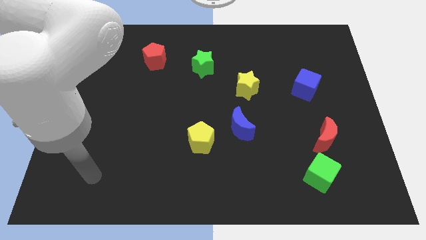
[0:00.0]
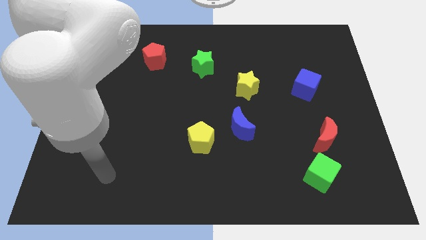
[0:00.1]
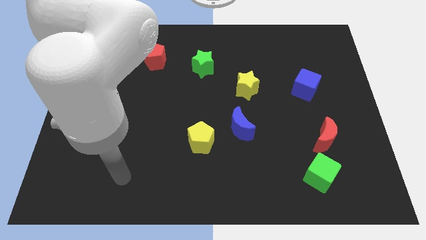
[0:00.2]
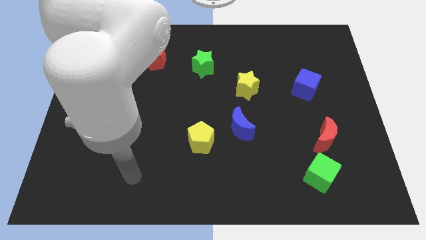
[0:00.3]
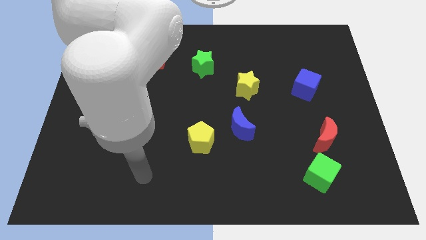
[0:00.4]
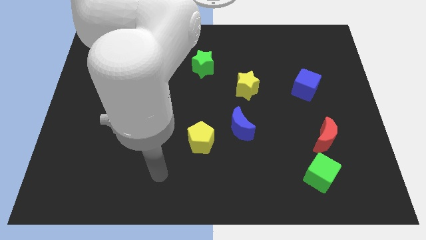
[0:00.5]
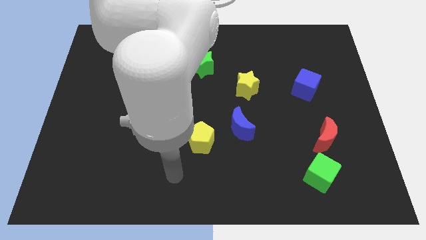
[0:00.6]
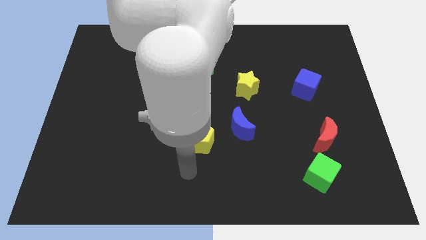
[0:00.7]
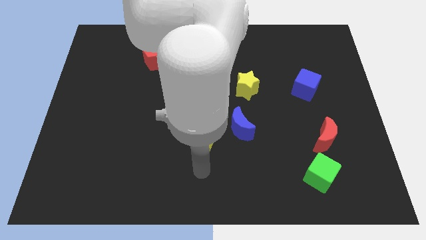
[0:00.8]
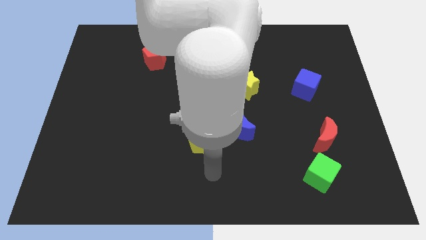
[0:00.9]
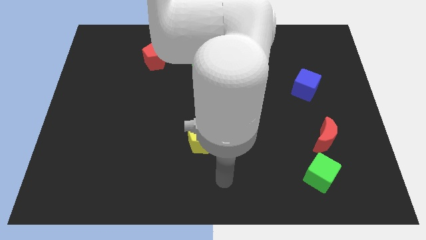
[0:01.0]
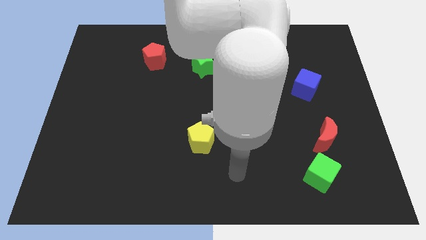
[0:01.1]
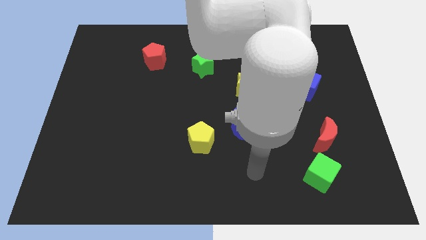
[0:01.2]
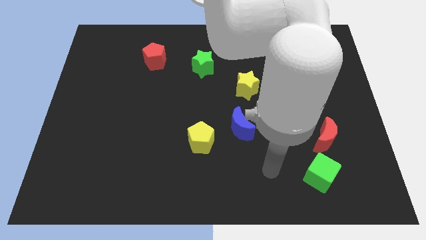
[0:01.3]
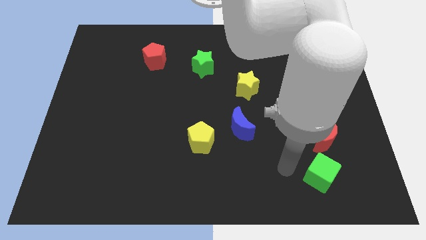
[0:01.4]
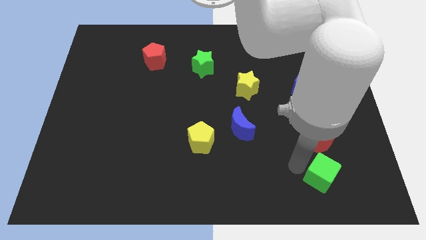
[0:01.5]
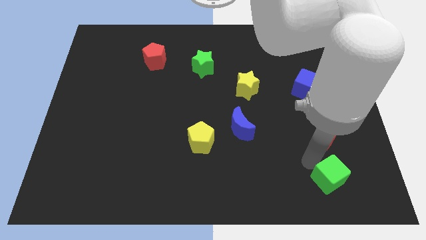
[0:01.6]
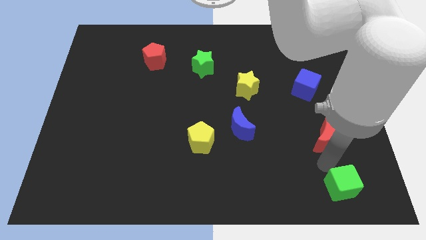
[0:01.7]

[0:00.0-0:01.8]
pull the red moon apart from the green cube

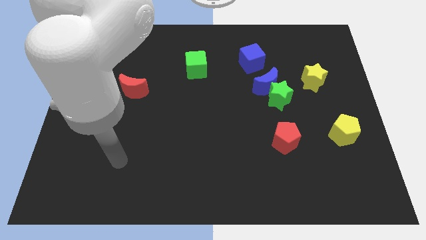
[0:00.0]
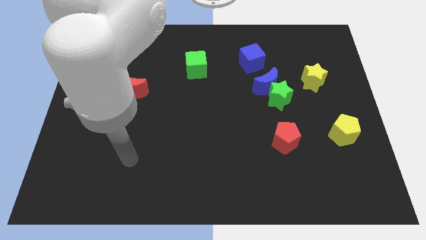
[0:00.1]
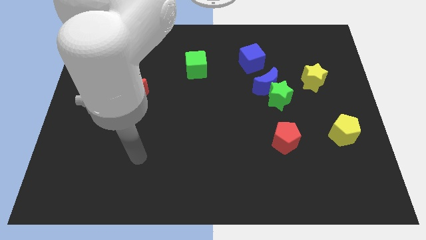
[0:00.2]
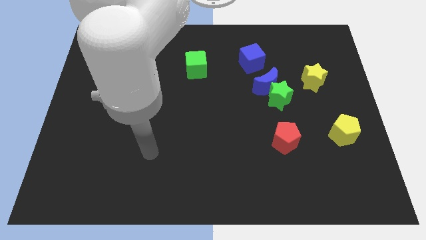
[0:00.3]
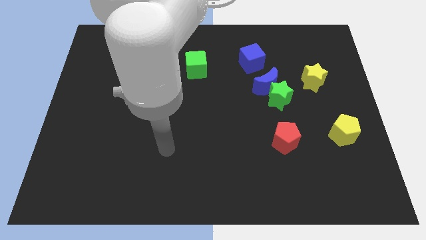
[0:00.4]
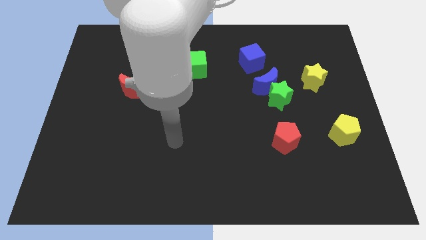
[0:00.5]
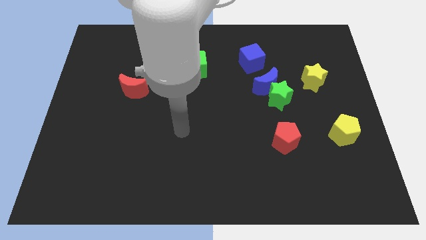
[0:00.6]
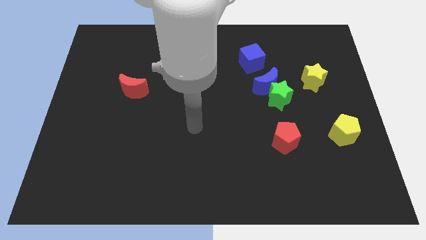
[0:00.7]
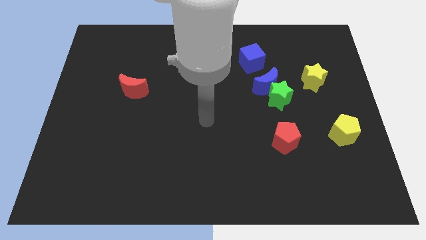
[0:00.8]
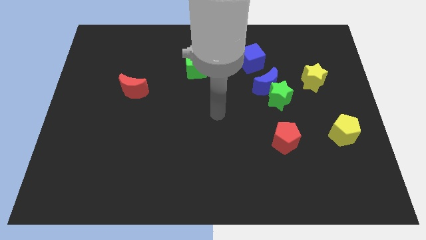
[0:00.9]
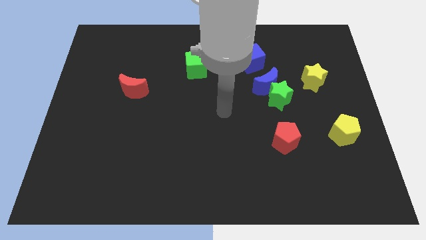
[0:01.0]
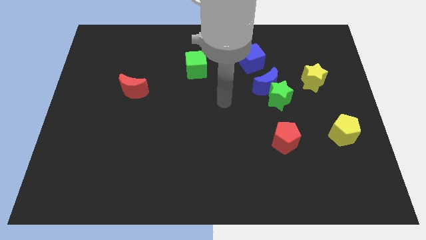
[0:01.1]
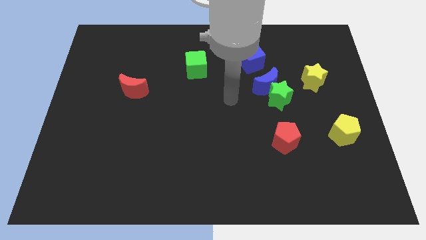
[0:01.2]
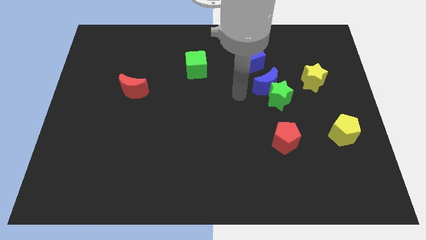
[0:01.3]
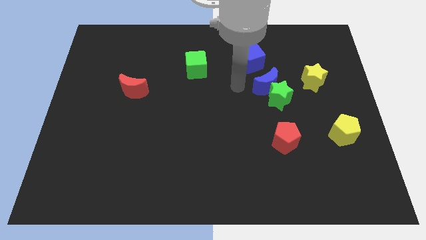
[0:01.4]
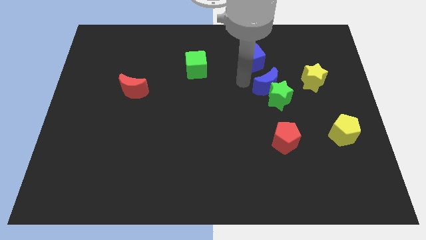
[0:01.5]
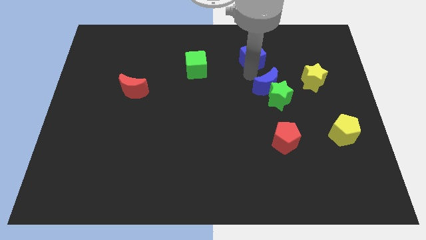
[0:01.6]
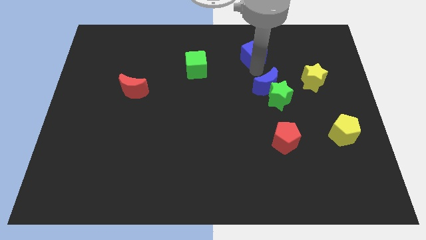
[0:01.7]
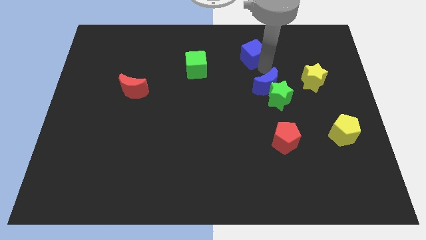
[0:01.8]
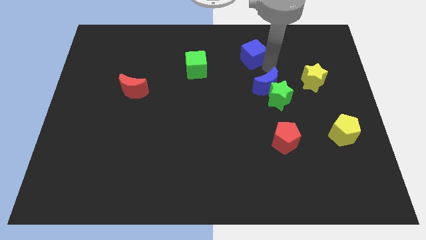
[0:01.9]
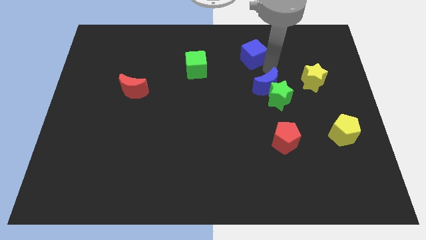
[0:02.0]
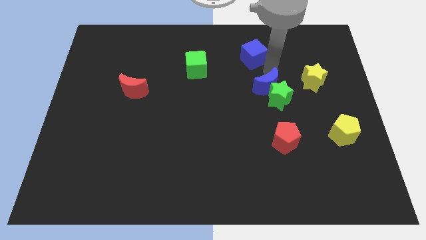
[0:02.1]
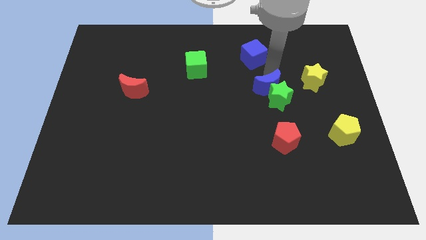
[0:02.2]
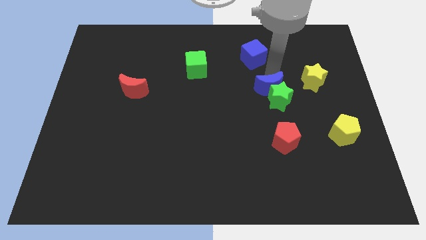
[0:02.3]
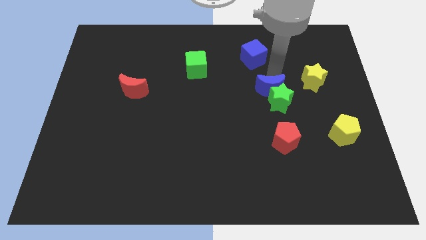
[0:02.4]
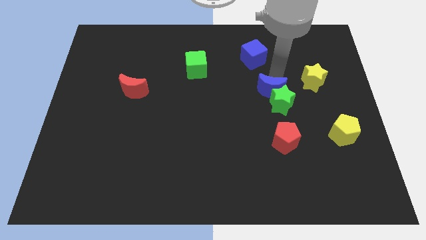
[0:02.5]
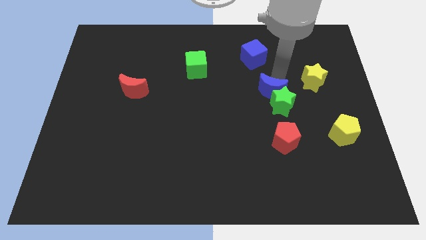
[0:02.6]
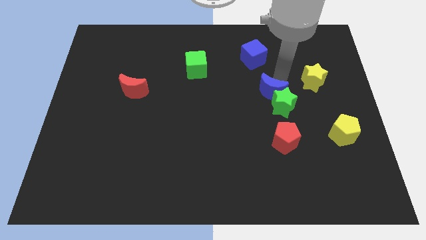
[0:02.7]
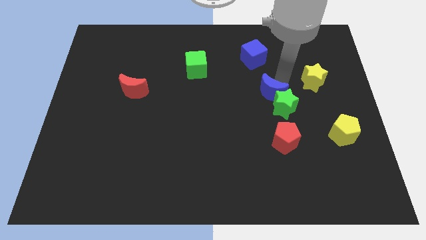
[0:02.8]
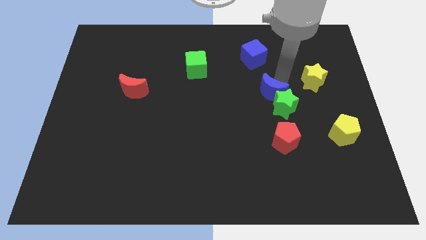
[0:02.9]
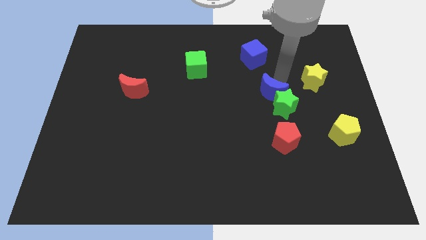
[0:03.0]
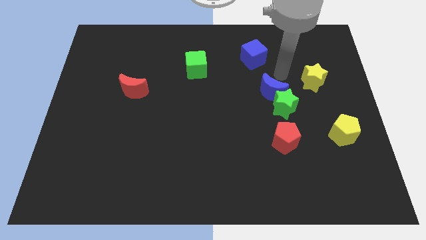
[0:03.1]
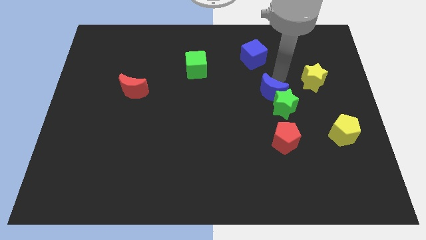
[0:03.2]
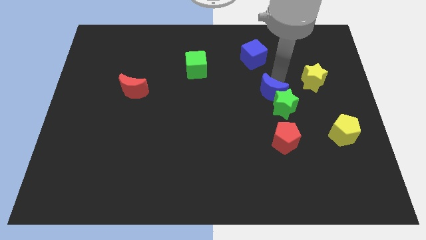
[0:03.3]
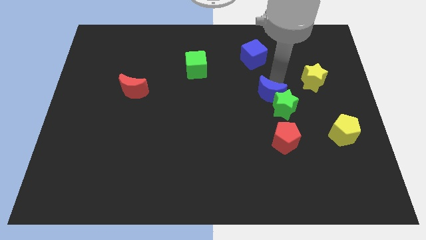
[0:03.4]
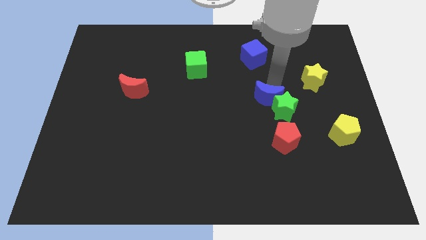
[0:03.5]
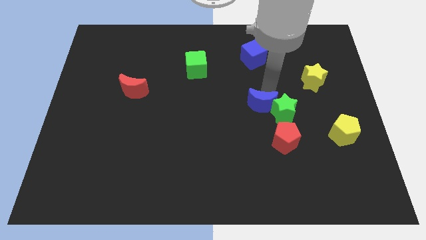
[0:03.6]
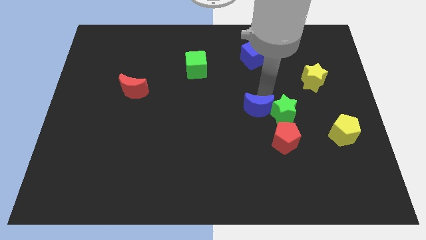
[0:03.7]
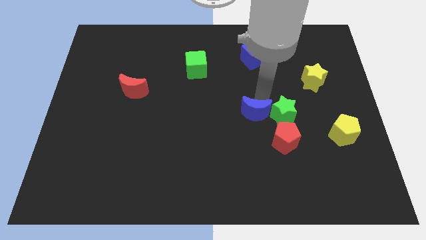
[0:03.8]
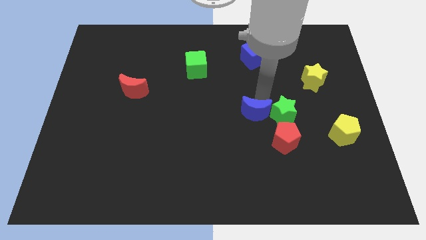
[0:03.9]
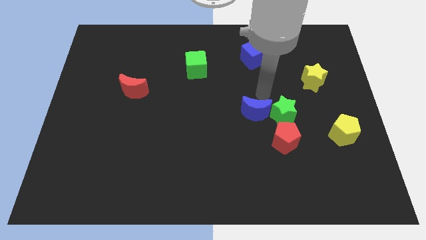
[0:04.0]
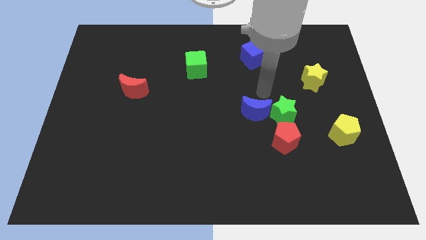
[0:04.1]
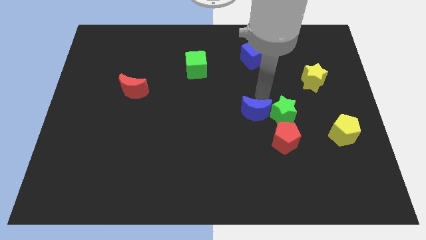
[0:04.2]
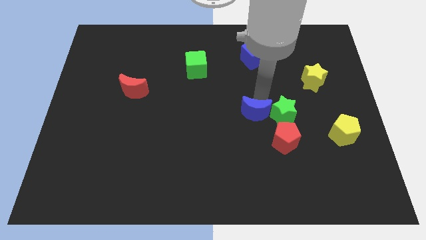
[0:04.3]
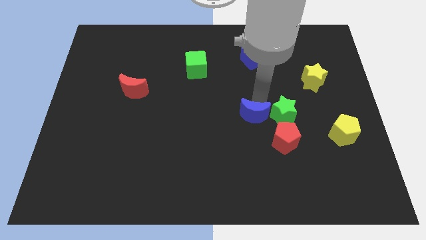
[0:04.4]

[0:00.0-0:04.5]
separate the blue moon from the green star and blue cube

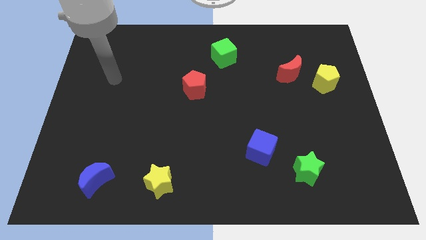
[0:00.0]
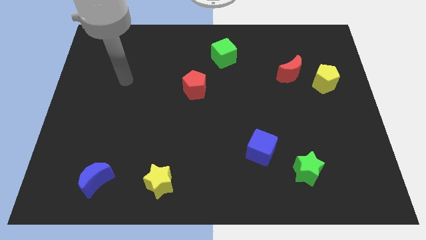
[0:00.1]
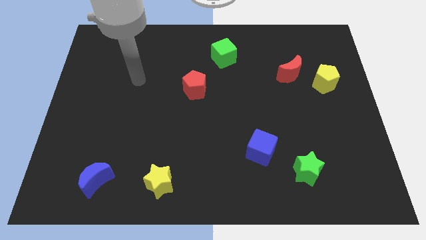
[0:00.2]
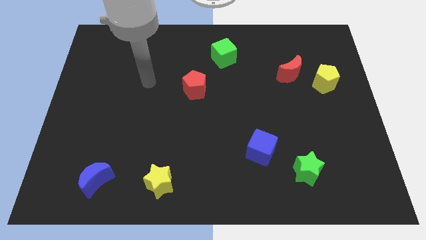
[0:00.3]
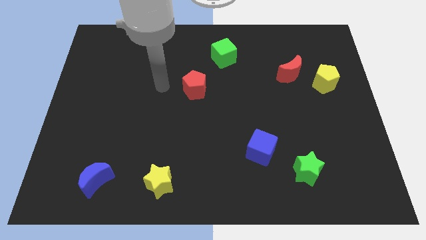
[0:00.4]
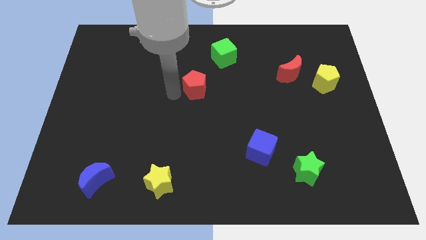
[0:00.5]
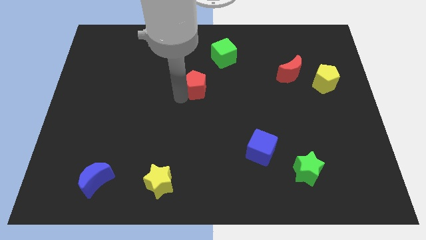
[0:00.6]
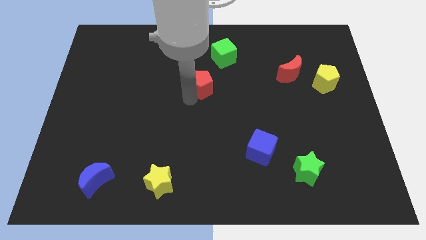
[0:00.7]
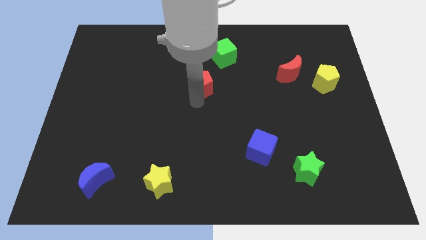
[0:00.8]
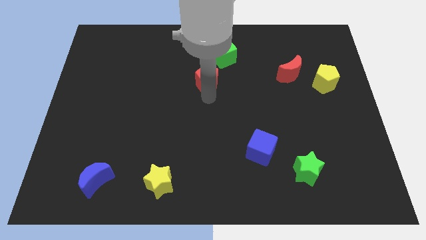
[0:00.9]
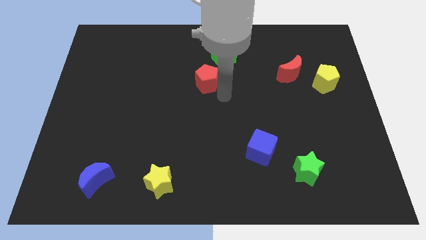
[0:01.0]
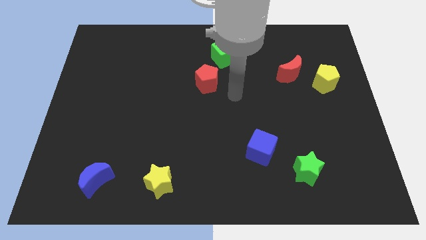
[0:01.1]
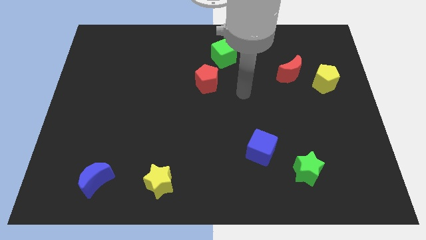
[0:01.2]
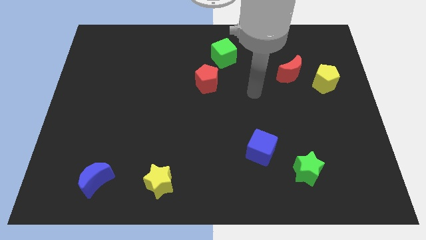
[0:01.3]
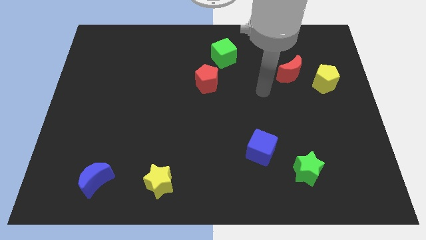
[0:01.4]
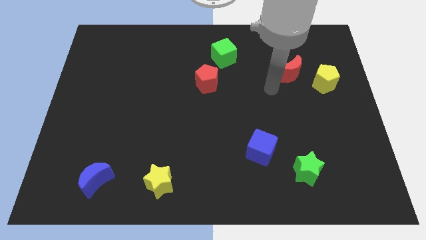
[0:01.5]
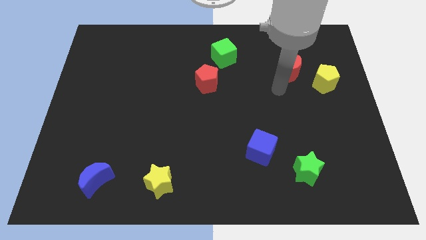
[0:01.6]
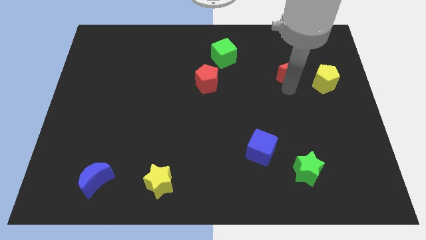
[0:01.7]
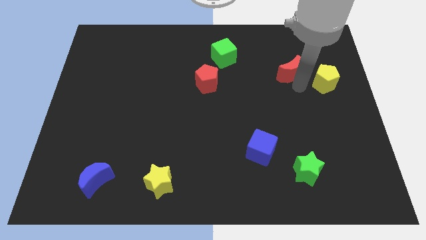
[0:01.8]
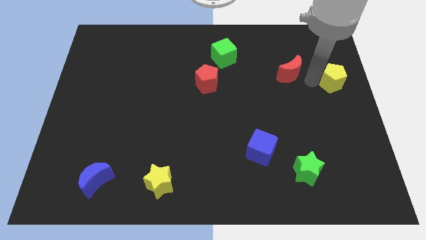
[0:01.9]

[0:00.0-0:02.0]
separate the red moon from the yellow pentagon

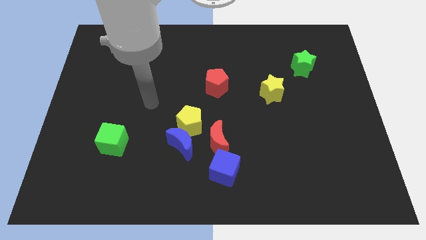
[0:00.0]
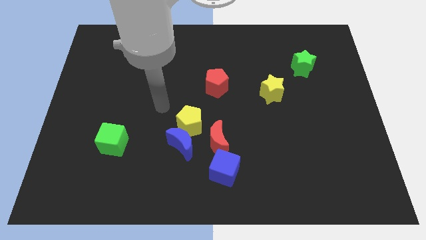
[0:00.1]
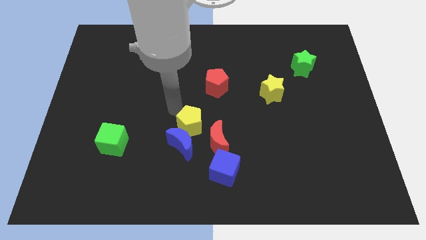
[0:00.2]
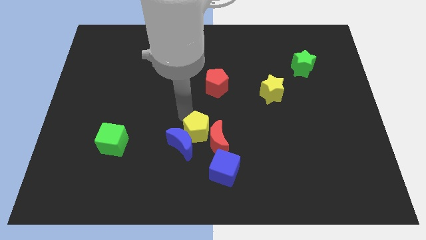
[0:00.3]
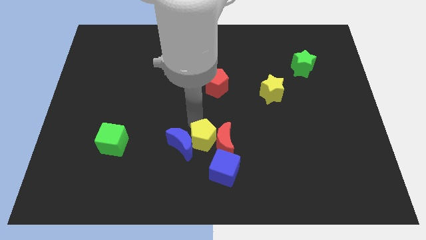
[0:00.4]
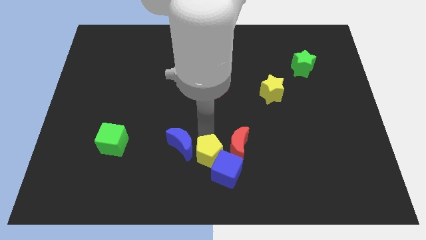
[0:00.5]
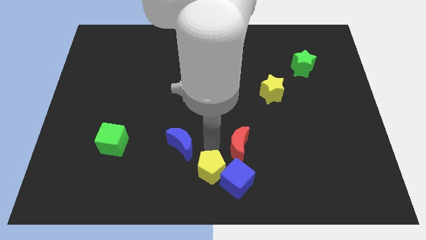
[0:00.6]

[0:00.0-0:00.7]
move the blue moon away from the yellow pentagon and red moon

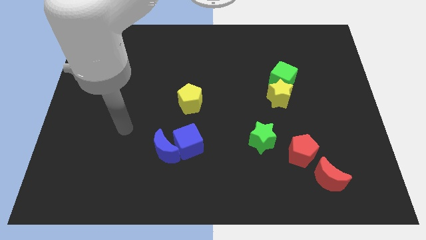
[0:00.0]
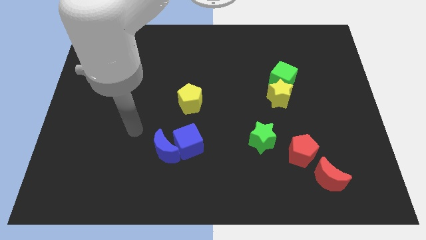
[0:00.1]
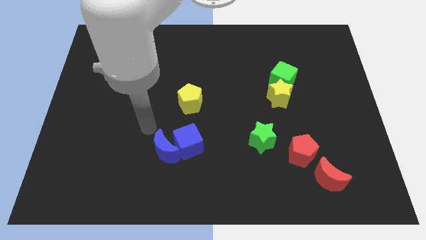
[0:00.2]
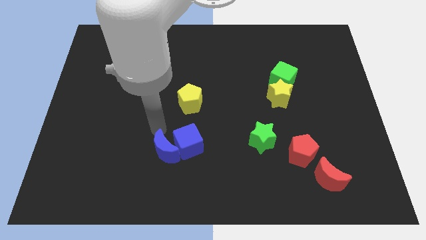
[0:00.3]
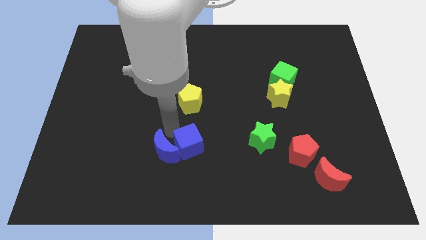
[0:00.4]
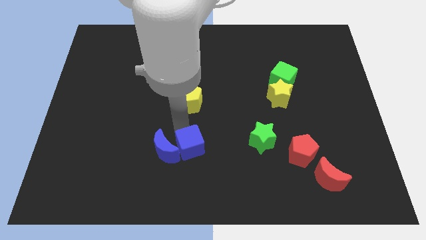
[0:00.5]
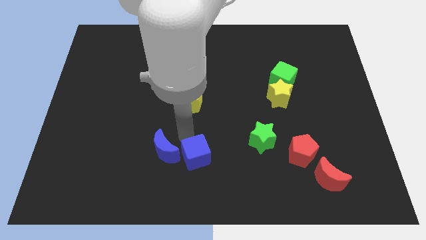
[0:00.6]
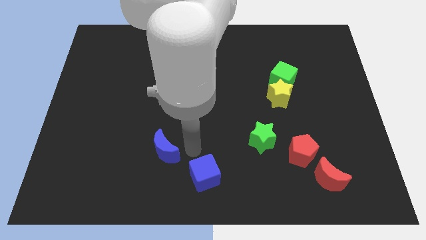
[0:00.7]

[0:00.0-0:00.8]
move the blue moon away from the blue cube
